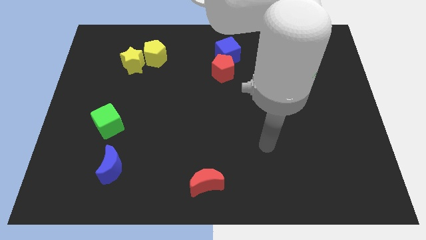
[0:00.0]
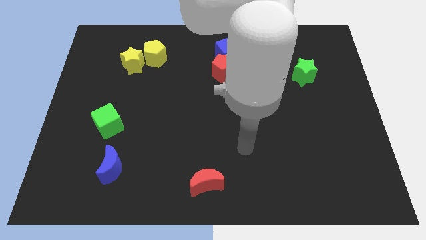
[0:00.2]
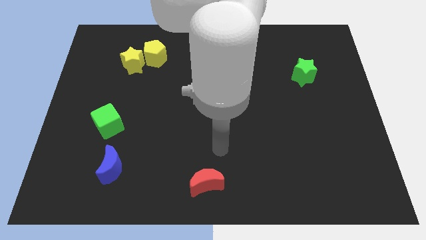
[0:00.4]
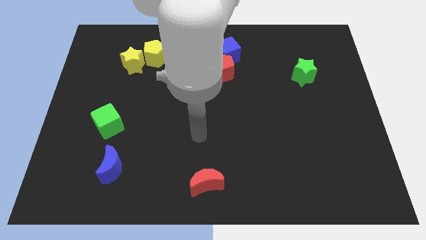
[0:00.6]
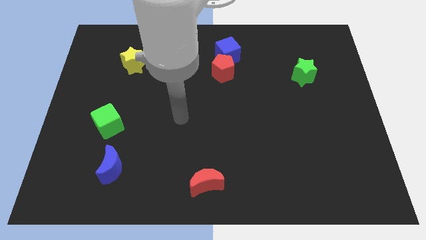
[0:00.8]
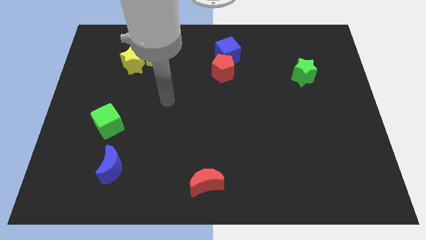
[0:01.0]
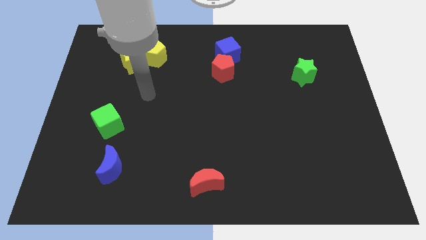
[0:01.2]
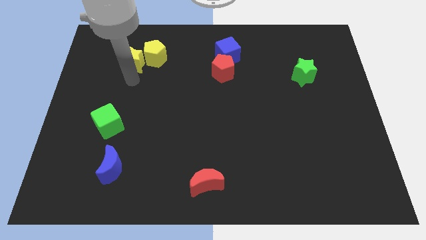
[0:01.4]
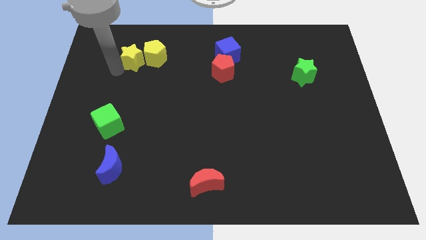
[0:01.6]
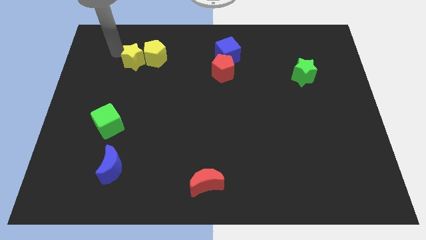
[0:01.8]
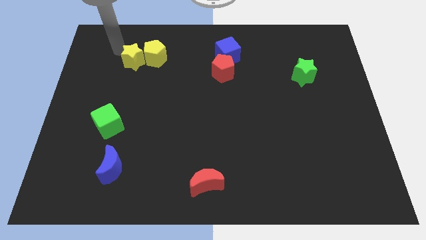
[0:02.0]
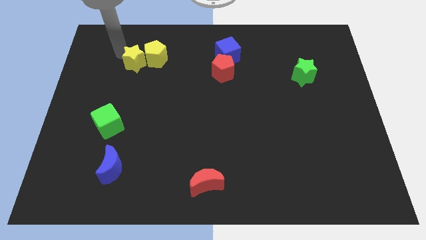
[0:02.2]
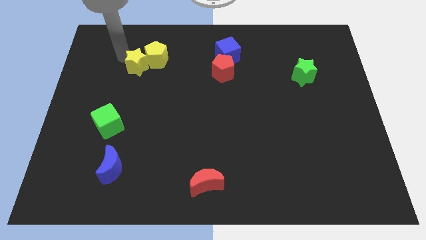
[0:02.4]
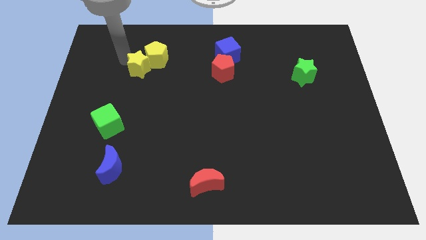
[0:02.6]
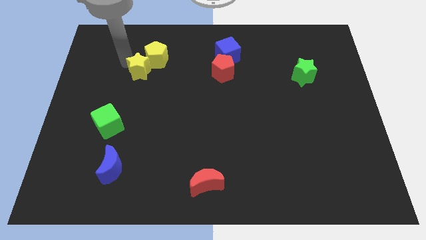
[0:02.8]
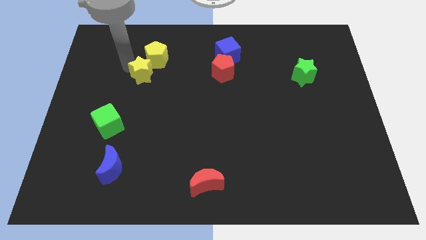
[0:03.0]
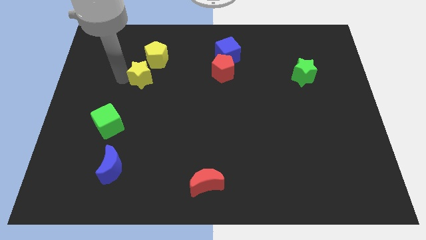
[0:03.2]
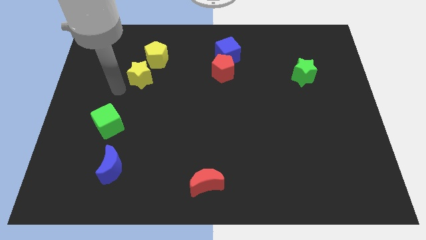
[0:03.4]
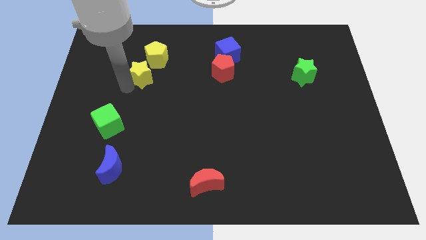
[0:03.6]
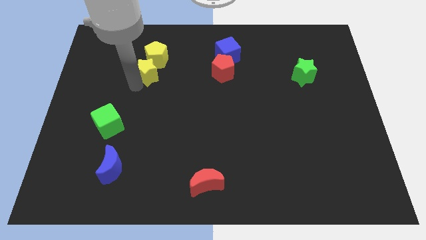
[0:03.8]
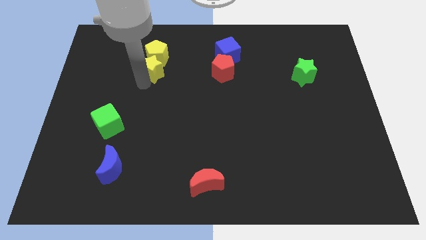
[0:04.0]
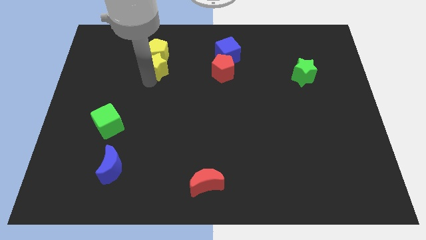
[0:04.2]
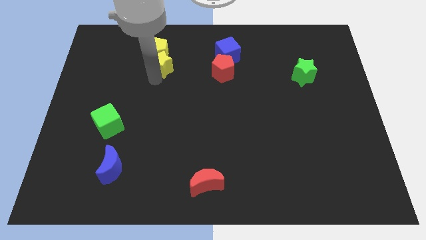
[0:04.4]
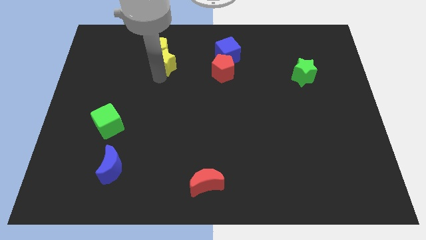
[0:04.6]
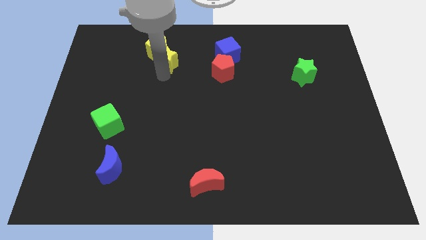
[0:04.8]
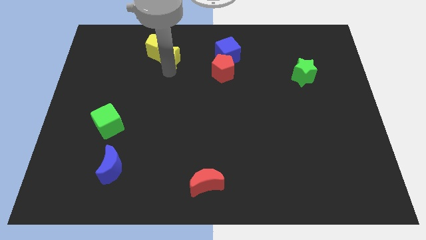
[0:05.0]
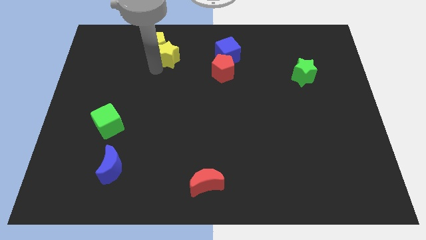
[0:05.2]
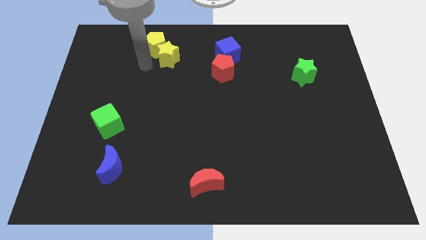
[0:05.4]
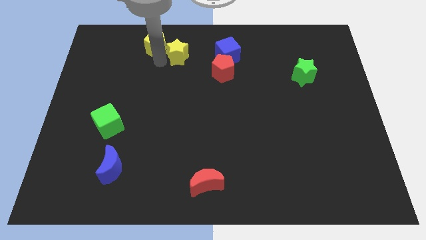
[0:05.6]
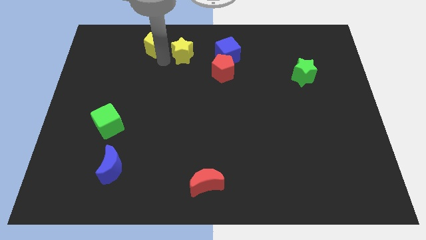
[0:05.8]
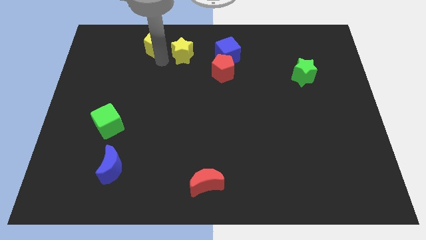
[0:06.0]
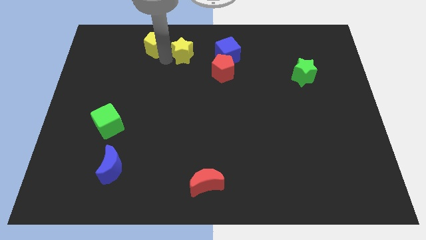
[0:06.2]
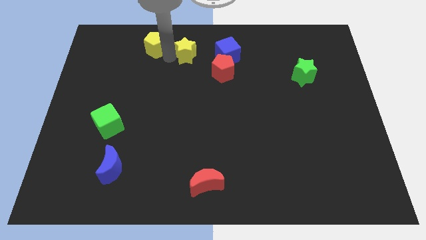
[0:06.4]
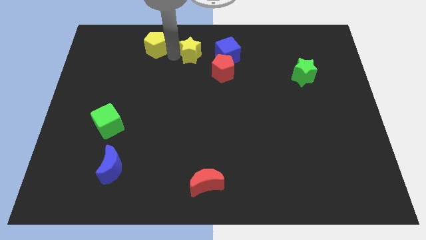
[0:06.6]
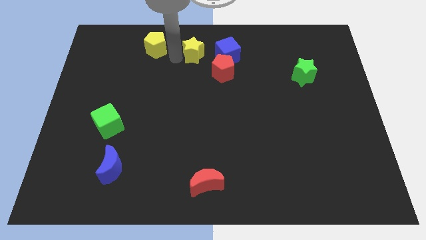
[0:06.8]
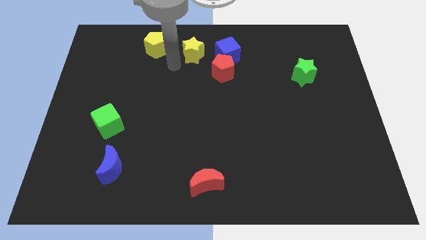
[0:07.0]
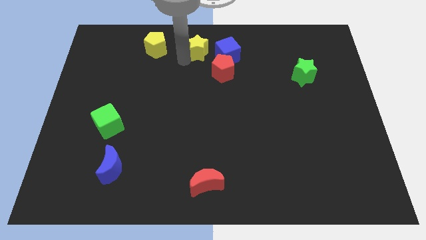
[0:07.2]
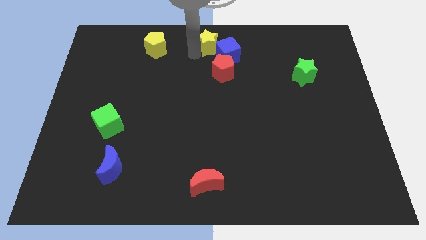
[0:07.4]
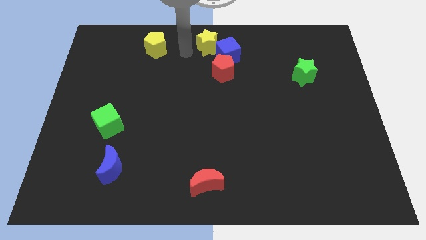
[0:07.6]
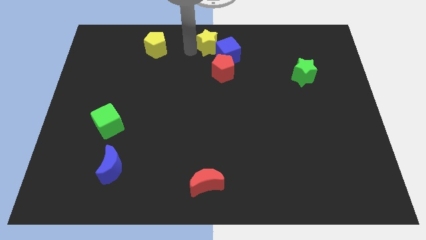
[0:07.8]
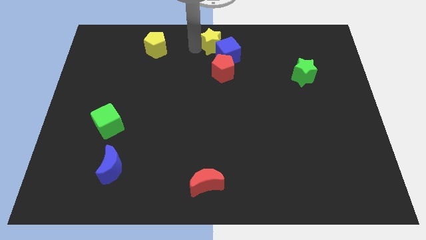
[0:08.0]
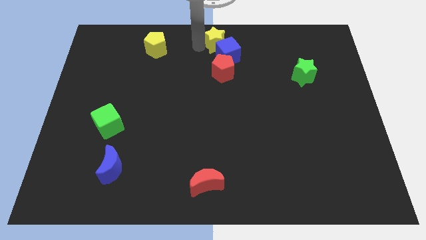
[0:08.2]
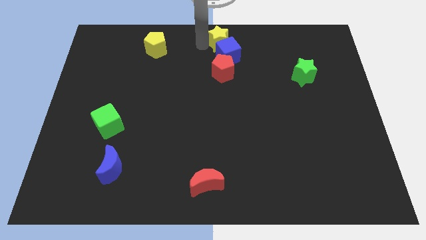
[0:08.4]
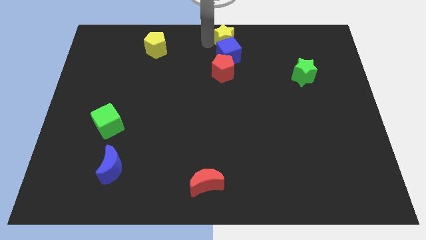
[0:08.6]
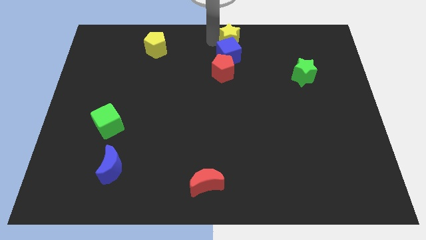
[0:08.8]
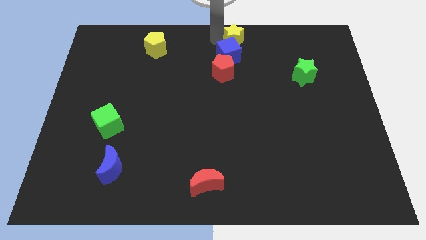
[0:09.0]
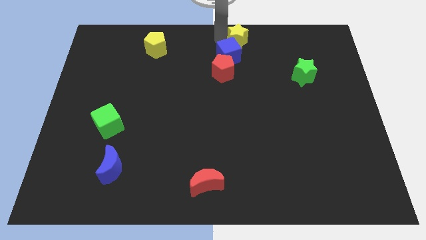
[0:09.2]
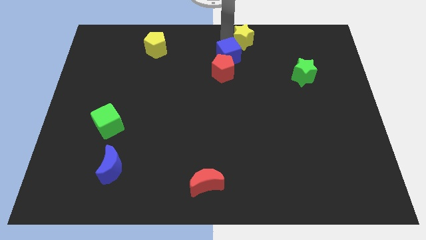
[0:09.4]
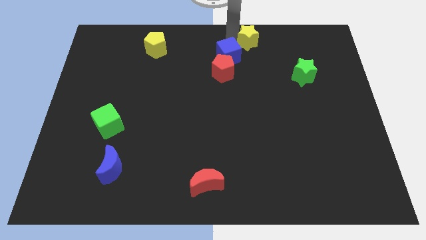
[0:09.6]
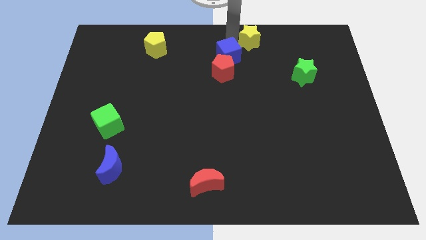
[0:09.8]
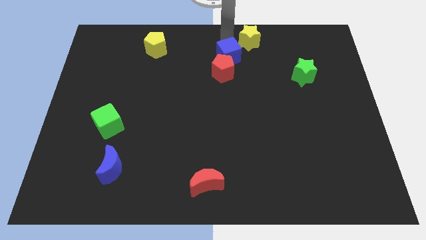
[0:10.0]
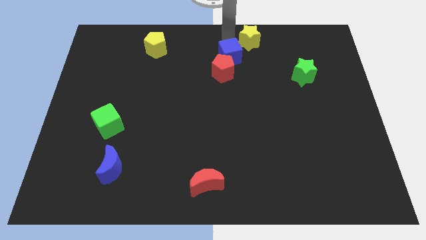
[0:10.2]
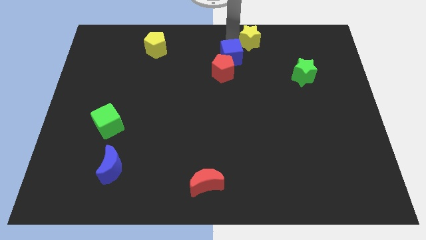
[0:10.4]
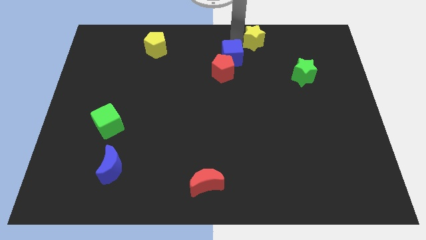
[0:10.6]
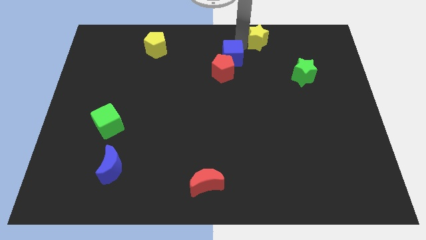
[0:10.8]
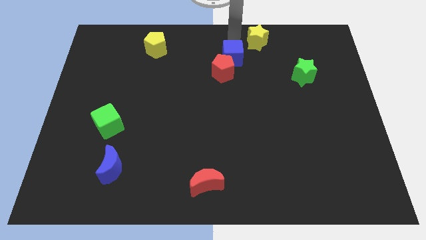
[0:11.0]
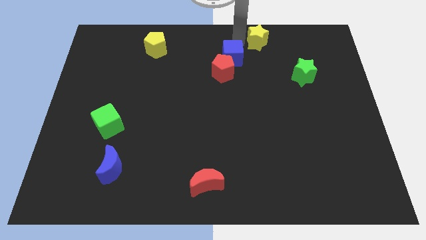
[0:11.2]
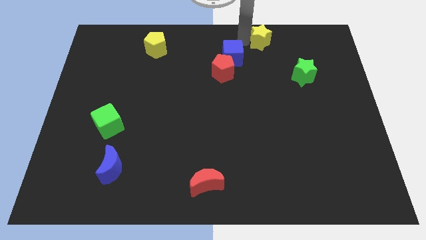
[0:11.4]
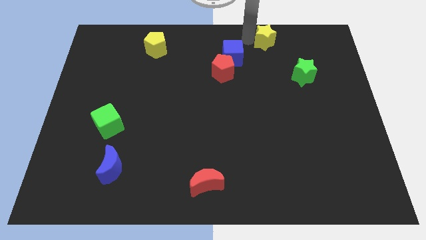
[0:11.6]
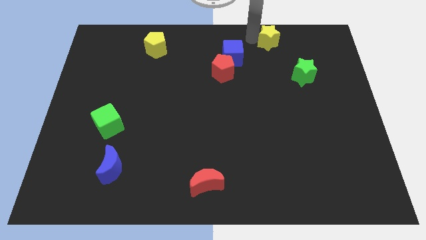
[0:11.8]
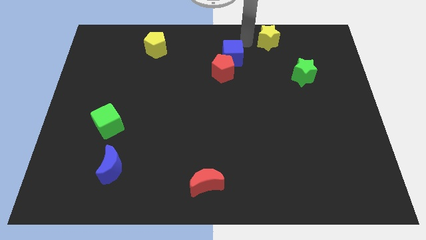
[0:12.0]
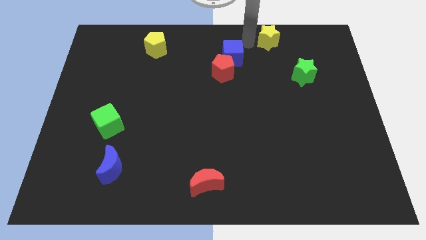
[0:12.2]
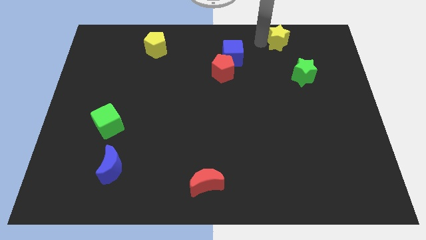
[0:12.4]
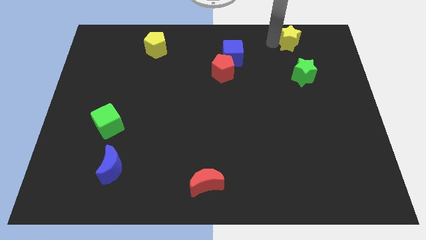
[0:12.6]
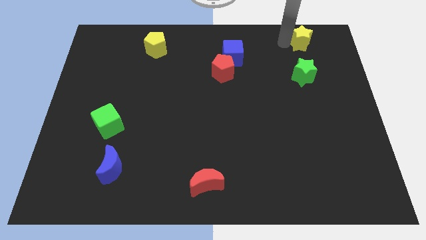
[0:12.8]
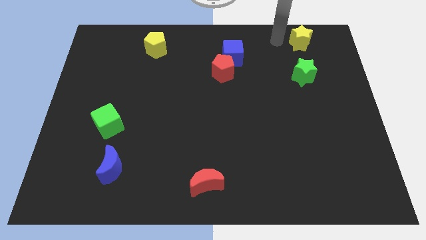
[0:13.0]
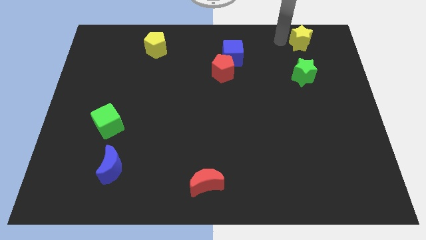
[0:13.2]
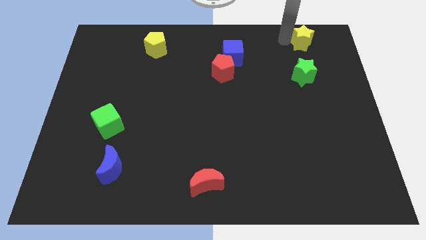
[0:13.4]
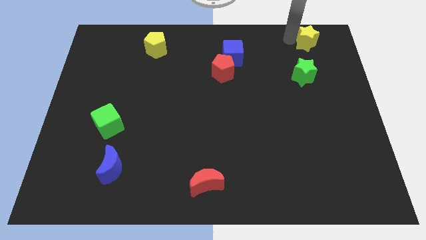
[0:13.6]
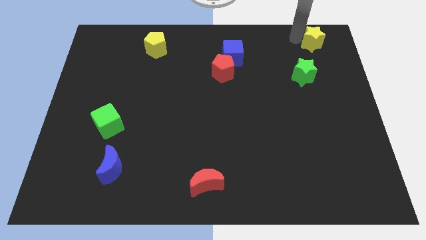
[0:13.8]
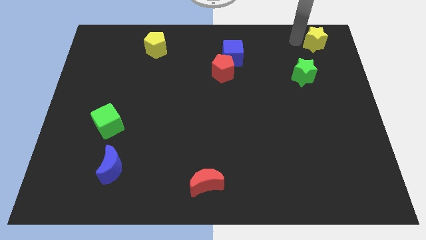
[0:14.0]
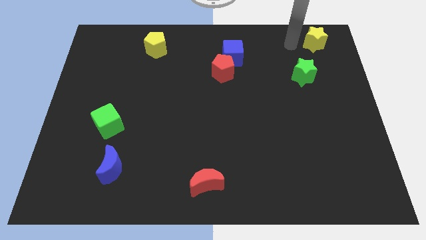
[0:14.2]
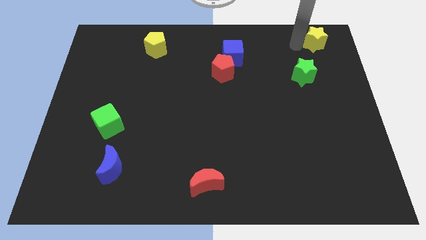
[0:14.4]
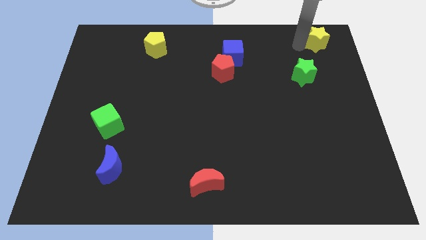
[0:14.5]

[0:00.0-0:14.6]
move the yellow star to the top right corner
